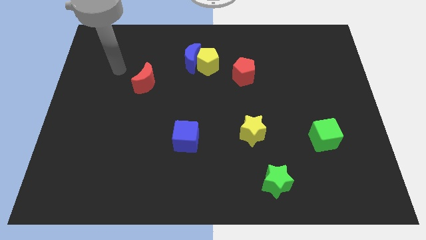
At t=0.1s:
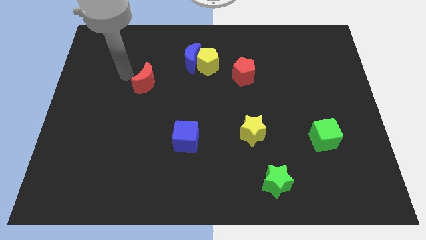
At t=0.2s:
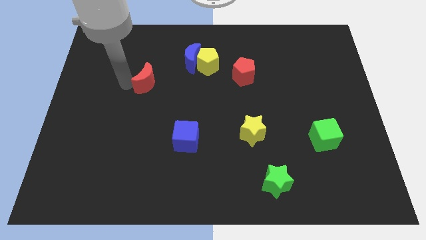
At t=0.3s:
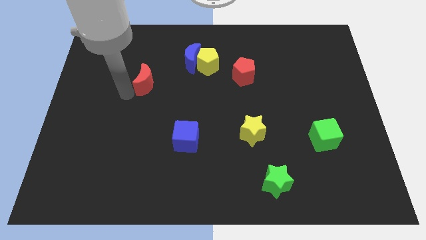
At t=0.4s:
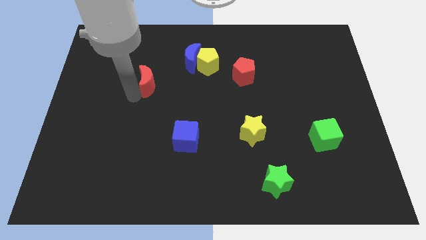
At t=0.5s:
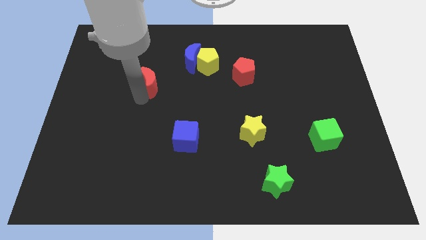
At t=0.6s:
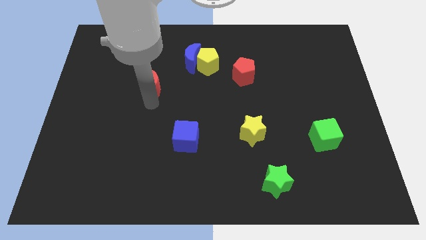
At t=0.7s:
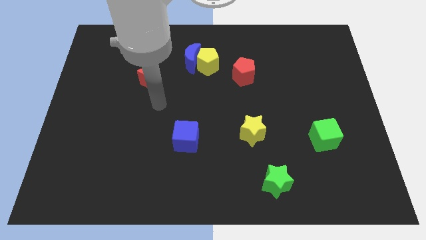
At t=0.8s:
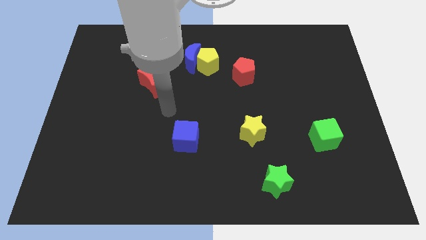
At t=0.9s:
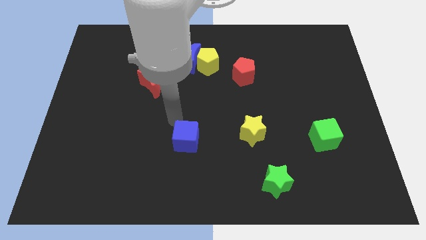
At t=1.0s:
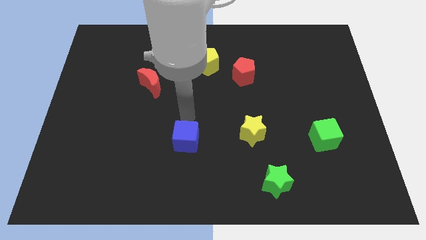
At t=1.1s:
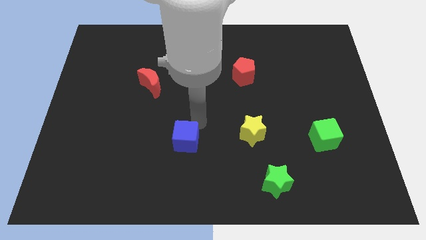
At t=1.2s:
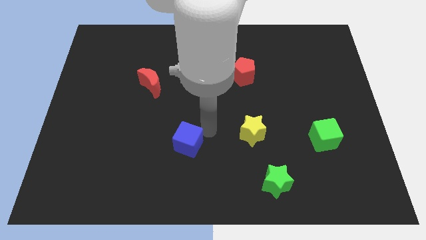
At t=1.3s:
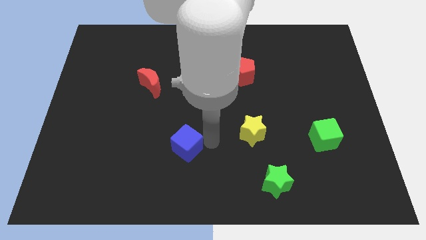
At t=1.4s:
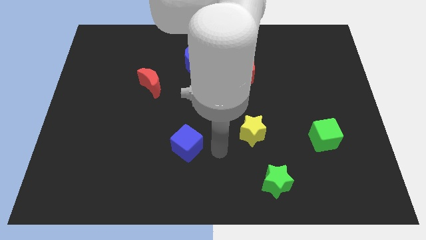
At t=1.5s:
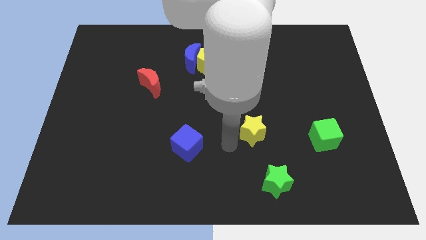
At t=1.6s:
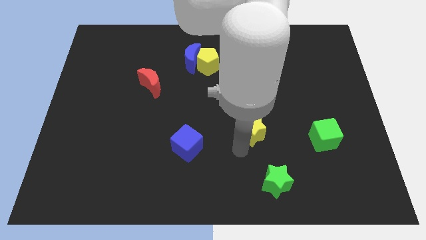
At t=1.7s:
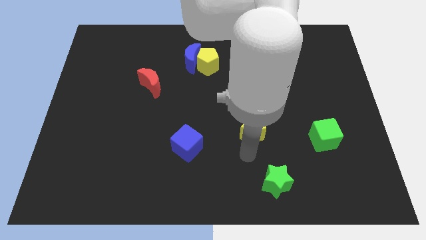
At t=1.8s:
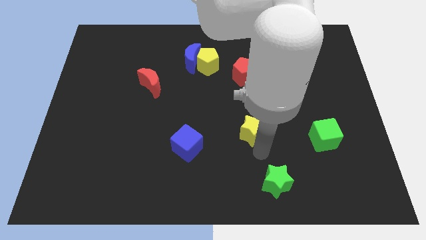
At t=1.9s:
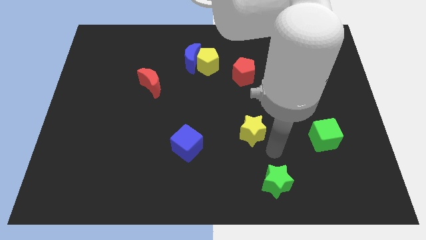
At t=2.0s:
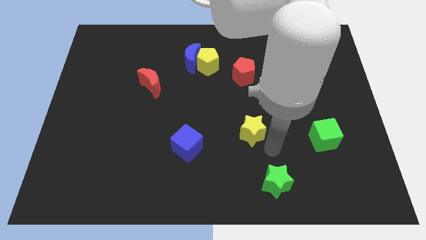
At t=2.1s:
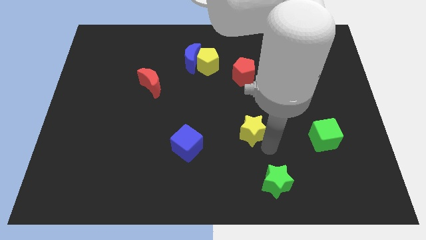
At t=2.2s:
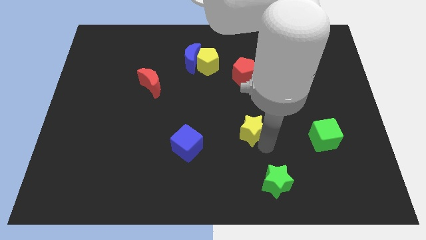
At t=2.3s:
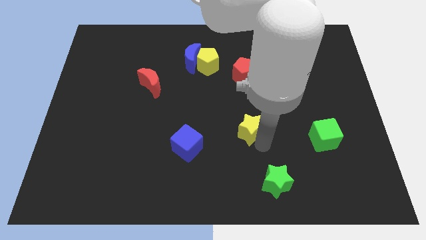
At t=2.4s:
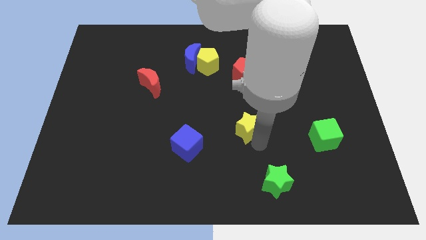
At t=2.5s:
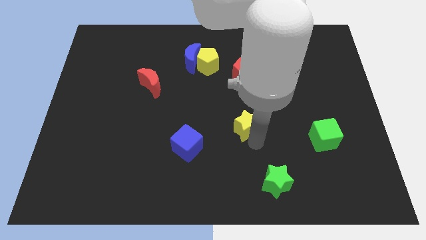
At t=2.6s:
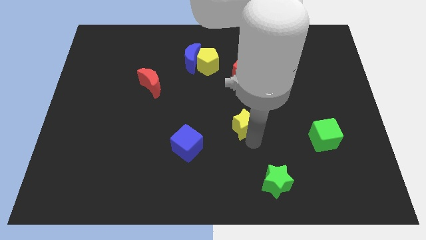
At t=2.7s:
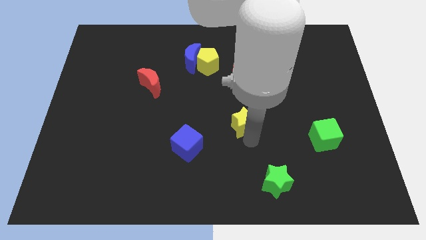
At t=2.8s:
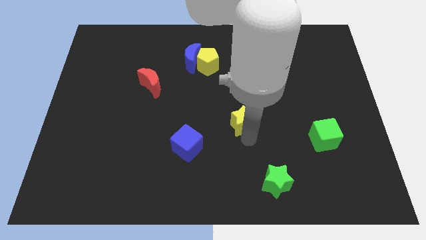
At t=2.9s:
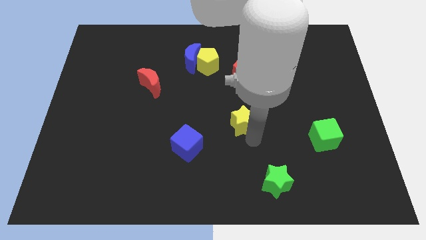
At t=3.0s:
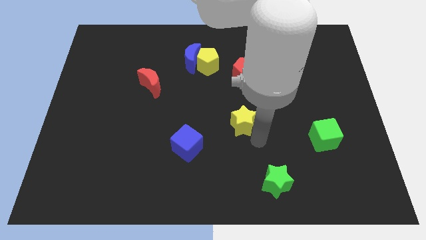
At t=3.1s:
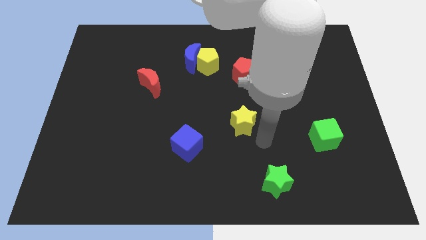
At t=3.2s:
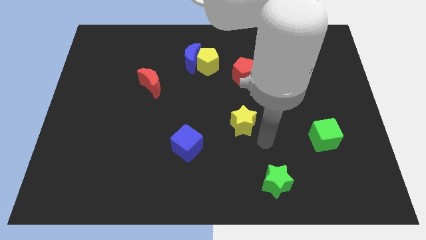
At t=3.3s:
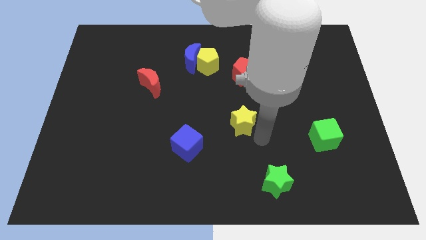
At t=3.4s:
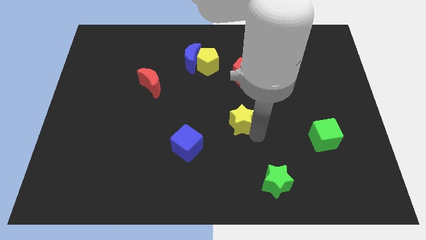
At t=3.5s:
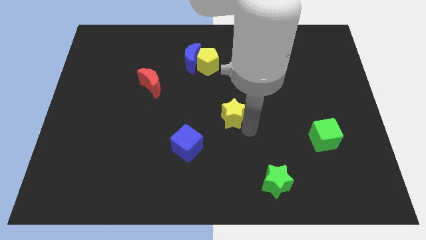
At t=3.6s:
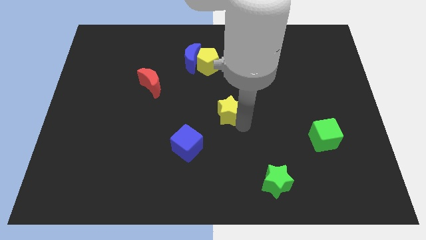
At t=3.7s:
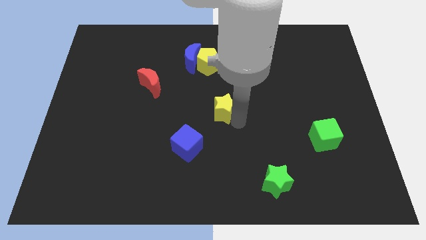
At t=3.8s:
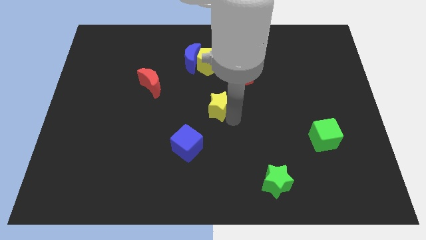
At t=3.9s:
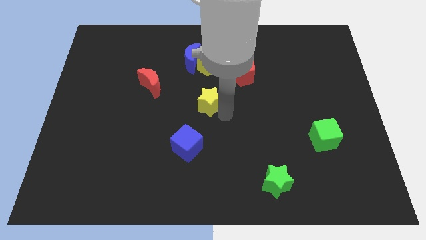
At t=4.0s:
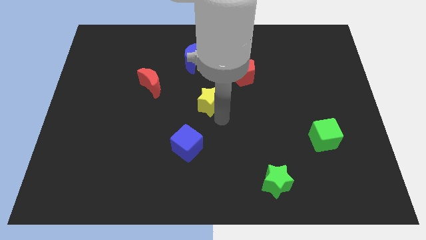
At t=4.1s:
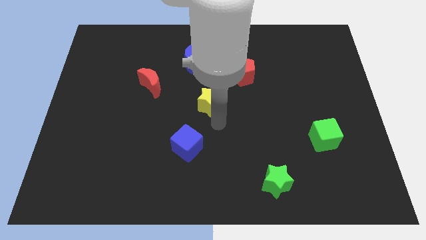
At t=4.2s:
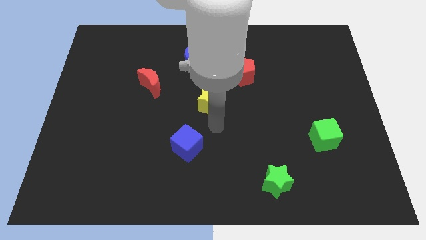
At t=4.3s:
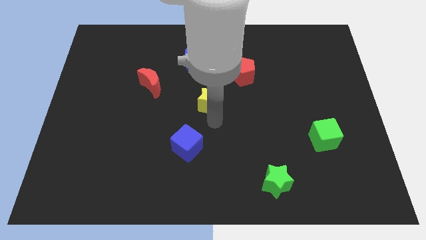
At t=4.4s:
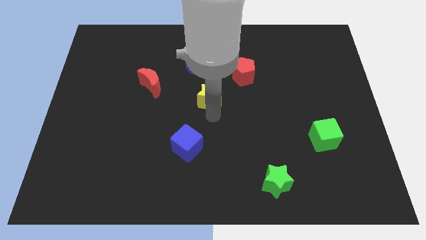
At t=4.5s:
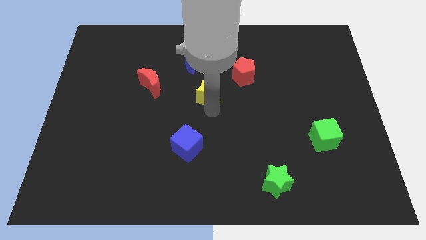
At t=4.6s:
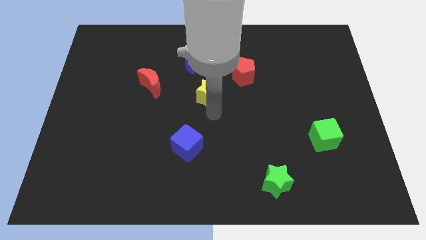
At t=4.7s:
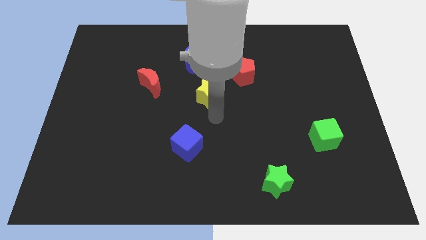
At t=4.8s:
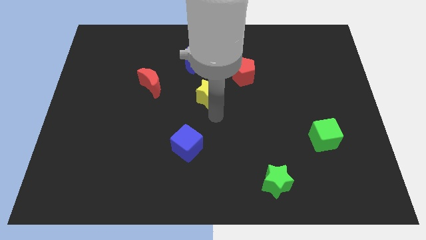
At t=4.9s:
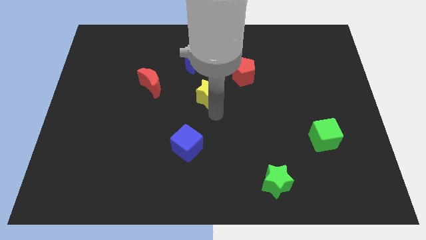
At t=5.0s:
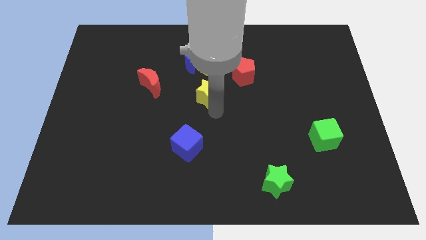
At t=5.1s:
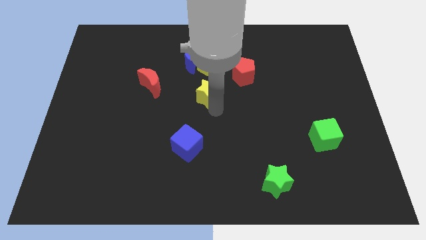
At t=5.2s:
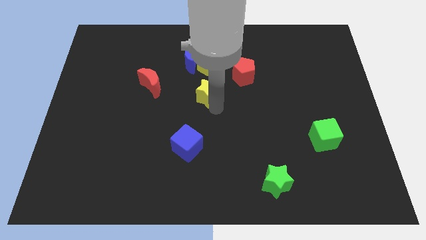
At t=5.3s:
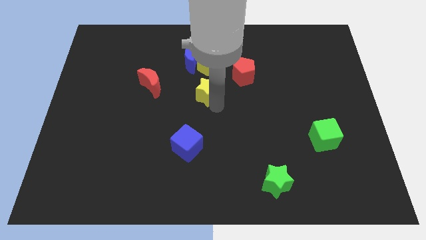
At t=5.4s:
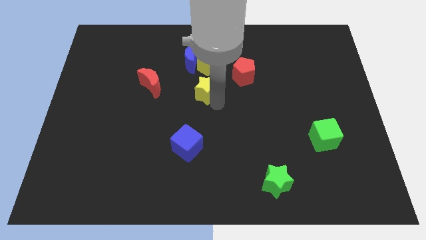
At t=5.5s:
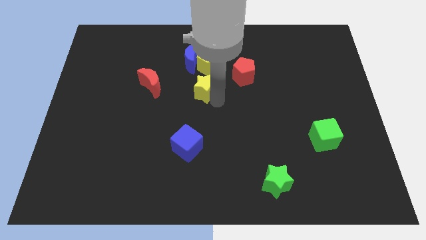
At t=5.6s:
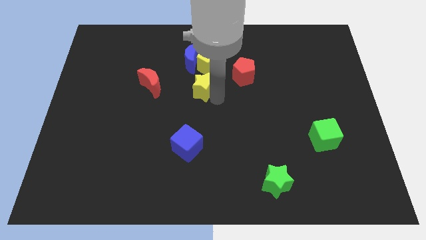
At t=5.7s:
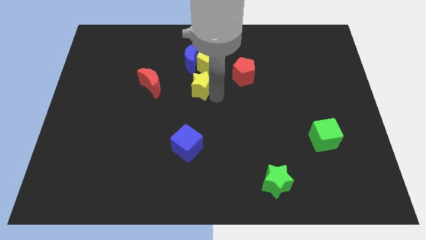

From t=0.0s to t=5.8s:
put the yellow star to the bottom left of the yellow pentagon

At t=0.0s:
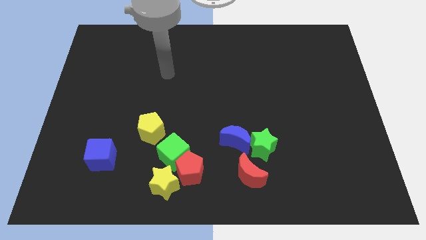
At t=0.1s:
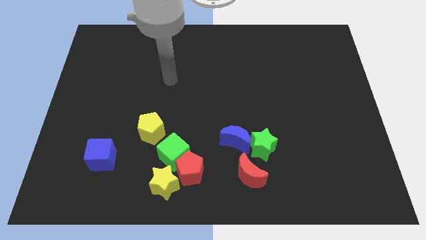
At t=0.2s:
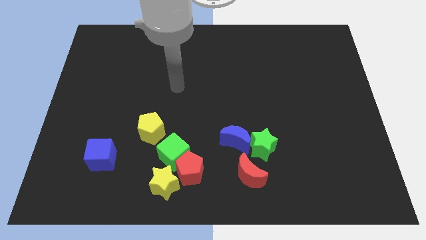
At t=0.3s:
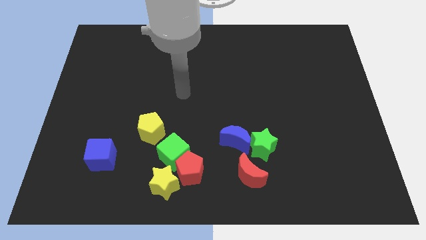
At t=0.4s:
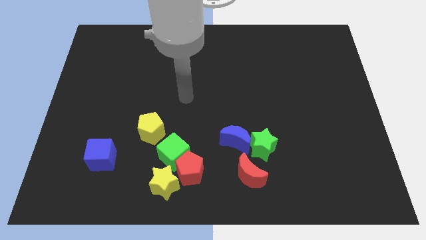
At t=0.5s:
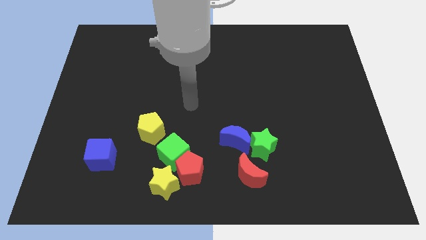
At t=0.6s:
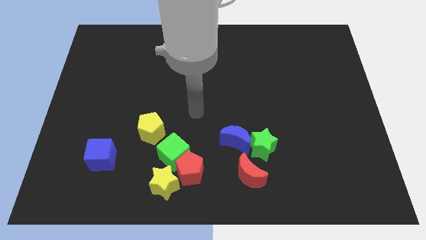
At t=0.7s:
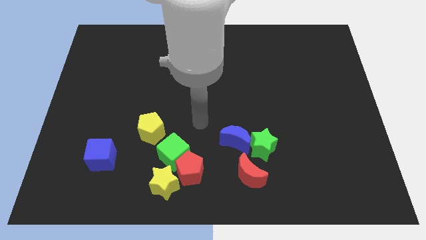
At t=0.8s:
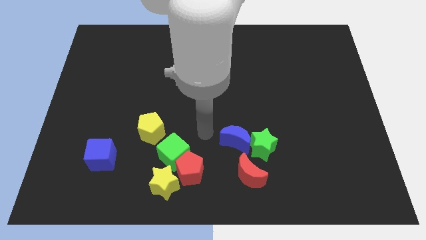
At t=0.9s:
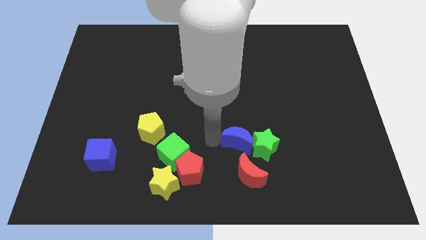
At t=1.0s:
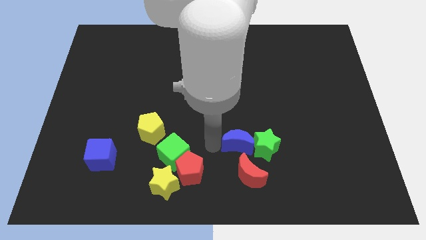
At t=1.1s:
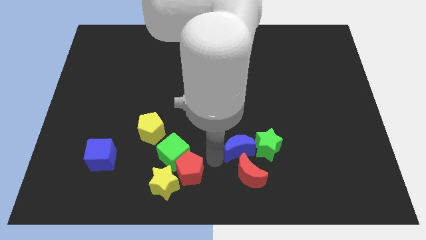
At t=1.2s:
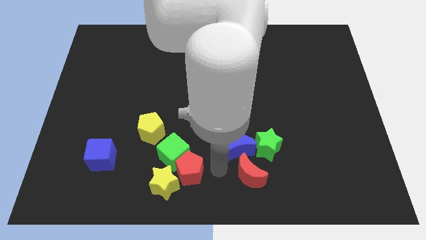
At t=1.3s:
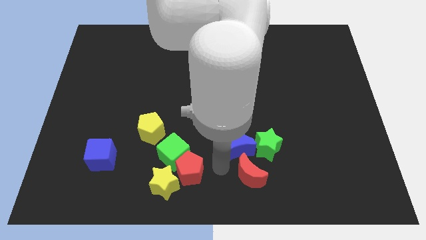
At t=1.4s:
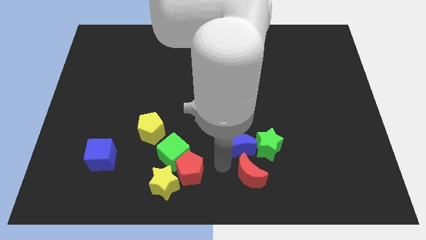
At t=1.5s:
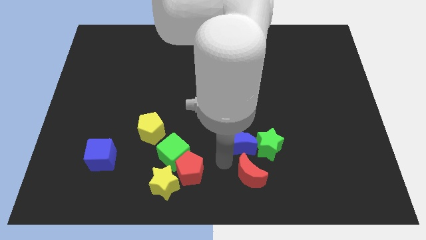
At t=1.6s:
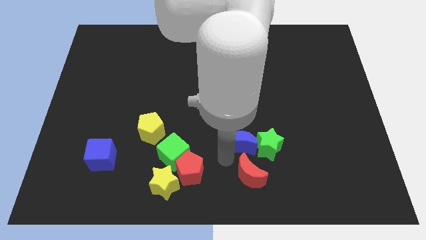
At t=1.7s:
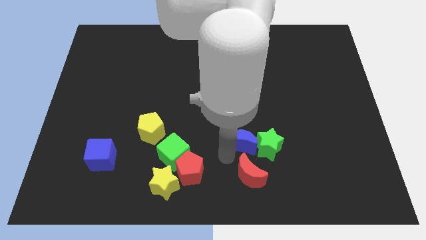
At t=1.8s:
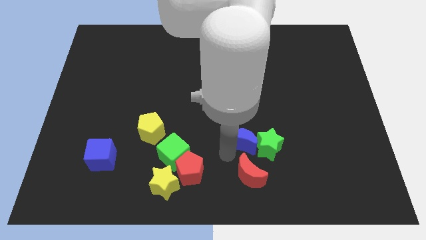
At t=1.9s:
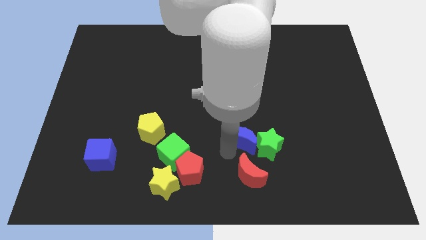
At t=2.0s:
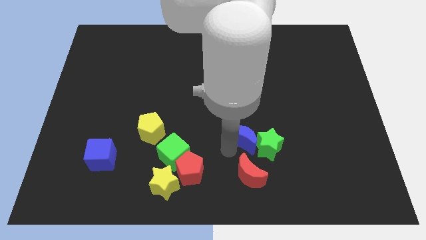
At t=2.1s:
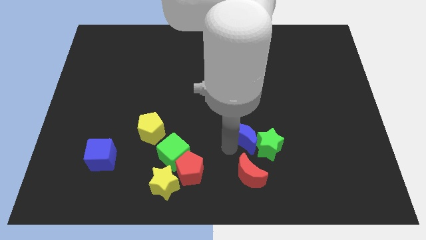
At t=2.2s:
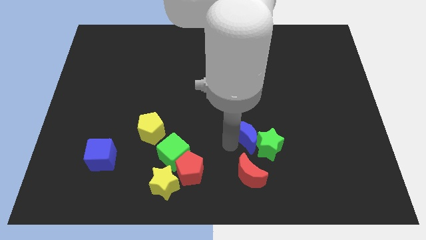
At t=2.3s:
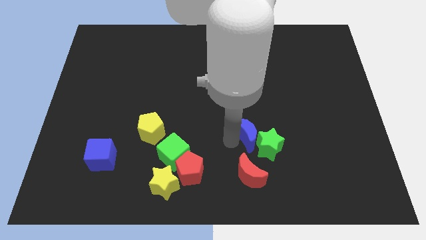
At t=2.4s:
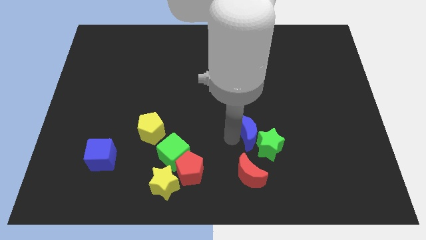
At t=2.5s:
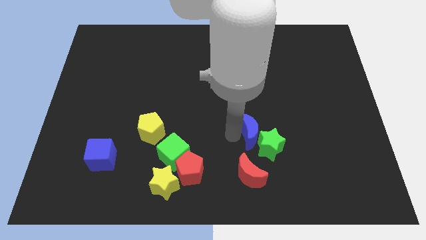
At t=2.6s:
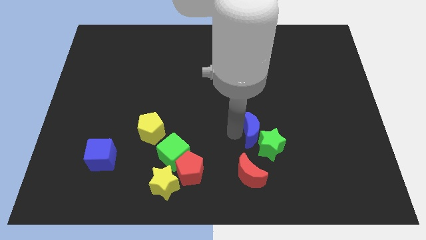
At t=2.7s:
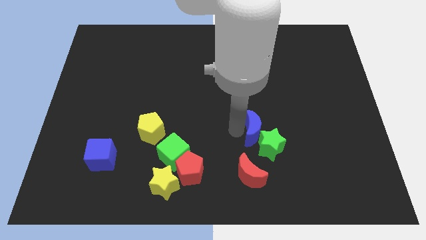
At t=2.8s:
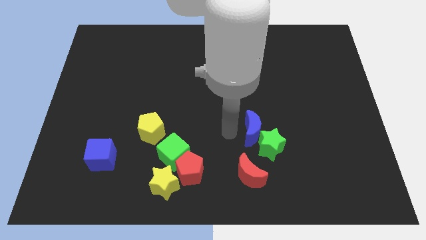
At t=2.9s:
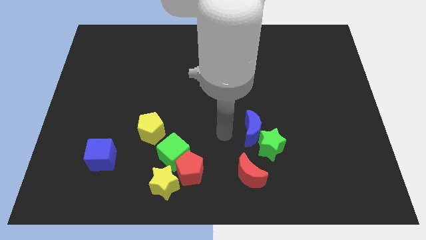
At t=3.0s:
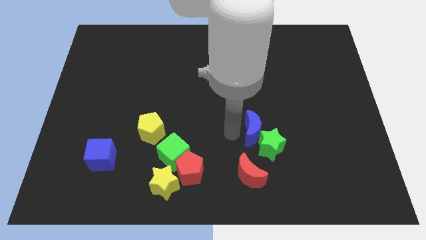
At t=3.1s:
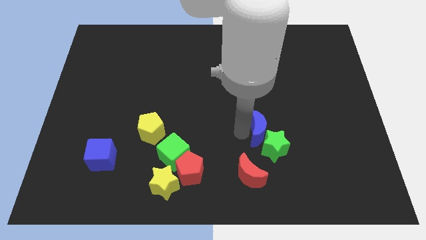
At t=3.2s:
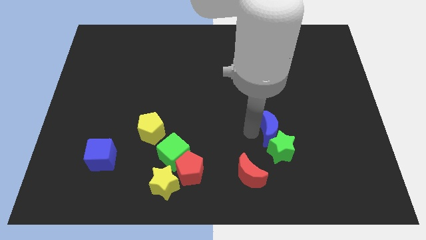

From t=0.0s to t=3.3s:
push the blue moon to the top right side of the green star
